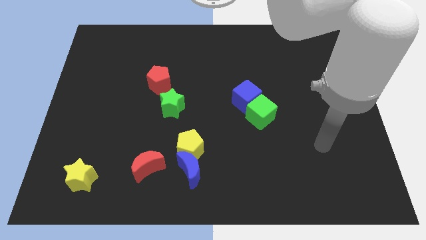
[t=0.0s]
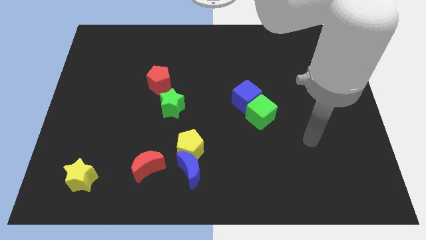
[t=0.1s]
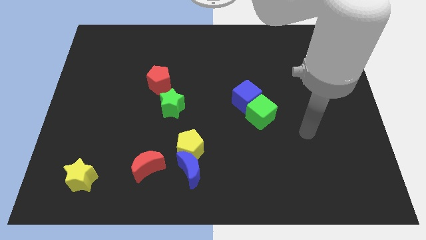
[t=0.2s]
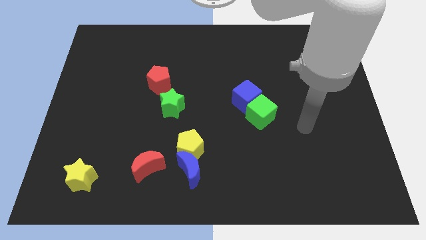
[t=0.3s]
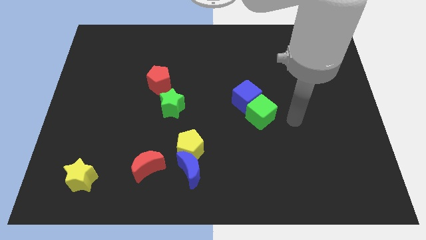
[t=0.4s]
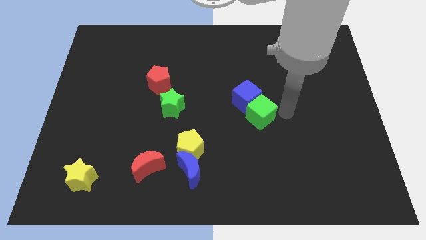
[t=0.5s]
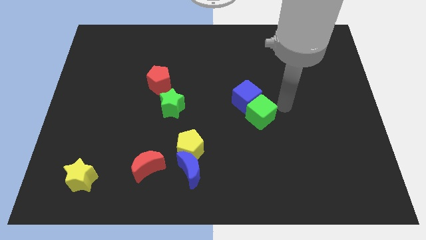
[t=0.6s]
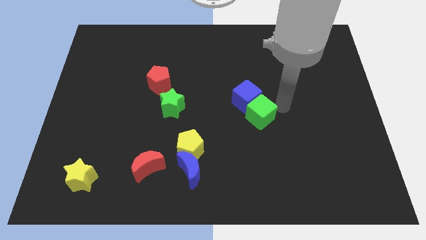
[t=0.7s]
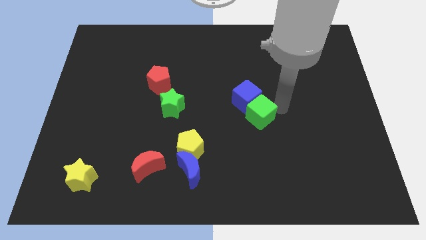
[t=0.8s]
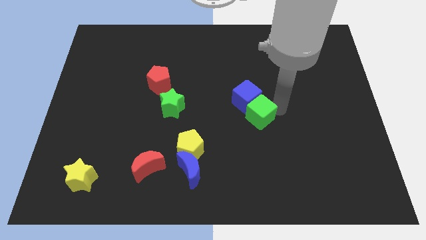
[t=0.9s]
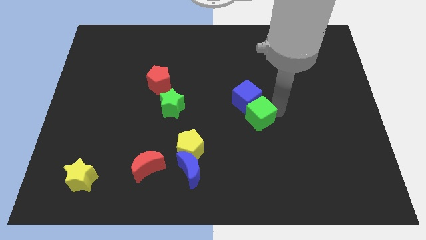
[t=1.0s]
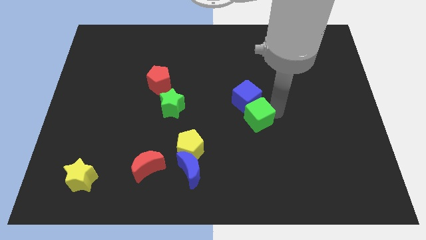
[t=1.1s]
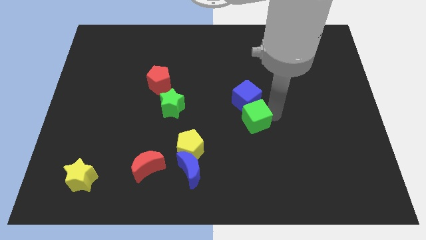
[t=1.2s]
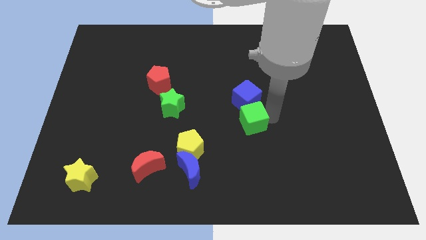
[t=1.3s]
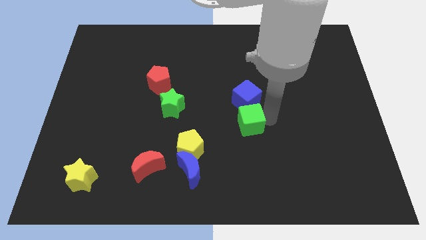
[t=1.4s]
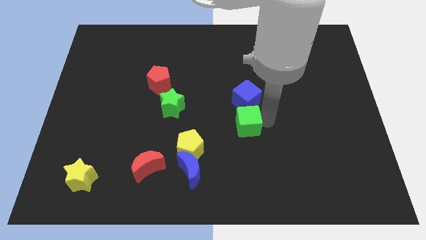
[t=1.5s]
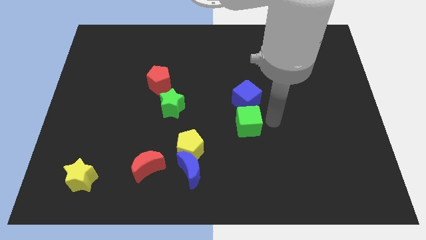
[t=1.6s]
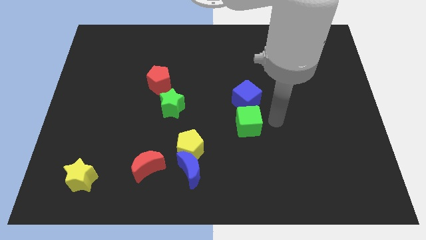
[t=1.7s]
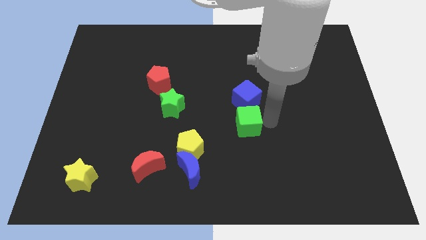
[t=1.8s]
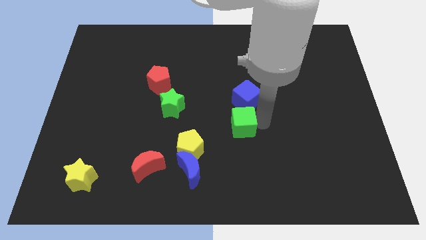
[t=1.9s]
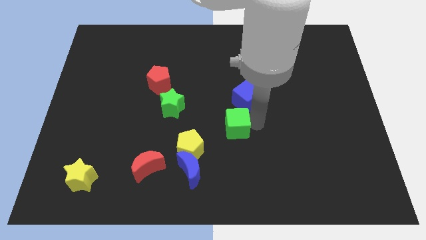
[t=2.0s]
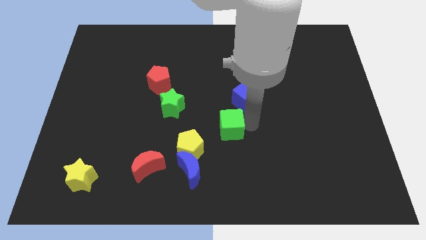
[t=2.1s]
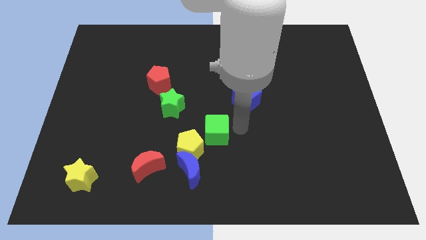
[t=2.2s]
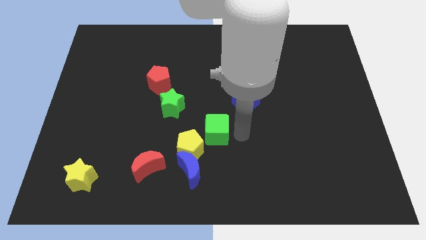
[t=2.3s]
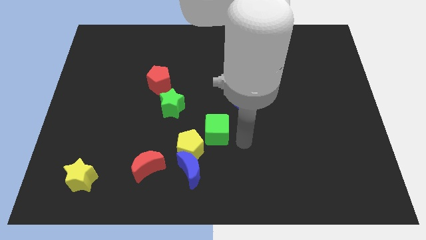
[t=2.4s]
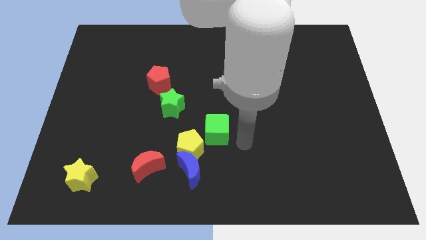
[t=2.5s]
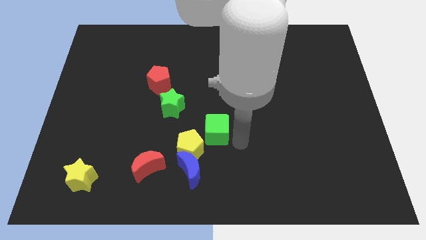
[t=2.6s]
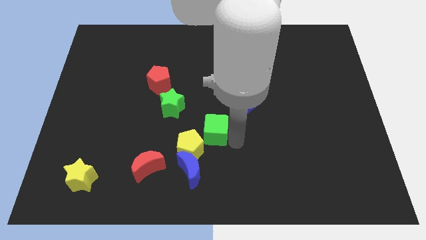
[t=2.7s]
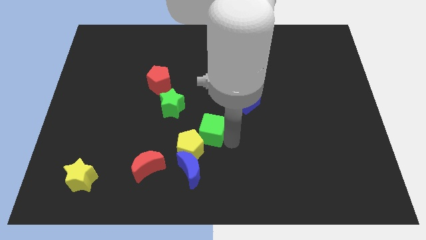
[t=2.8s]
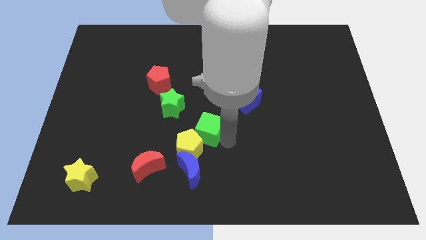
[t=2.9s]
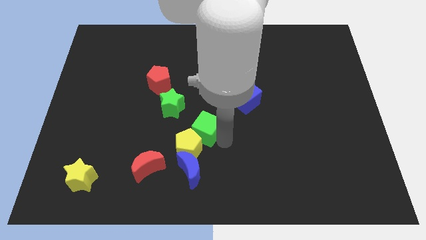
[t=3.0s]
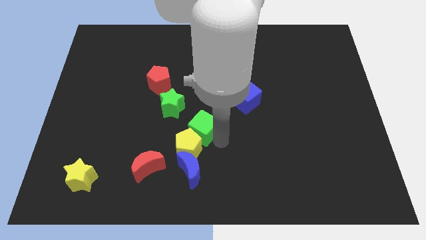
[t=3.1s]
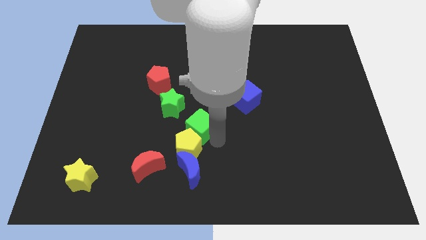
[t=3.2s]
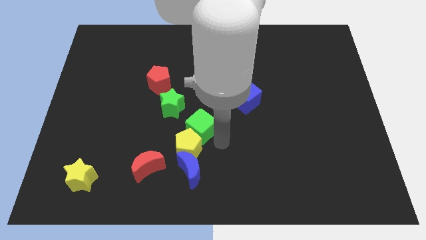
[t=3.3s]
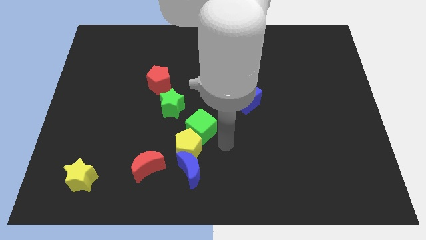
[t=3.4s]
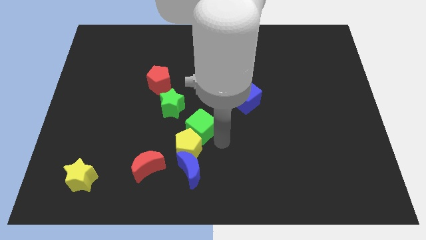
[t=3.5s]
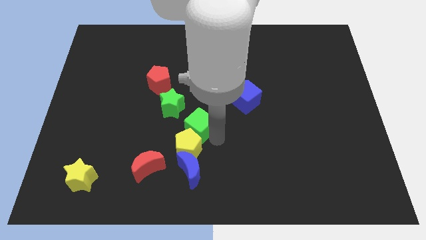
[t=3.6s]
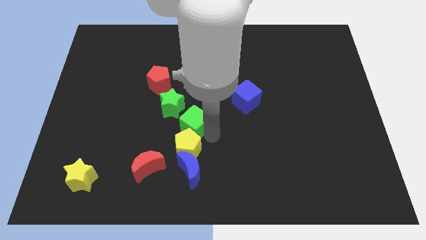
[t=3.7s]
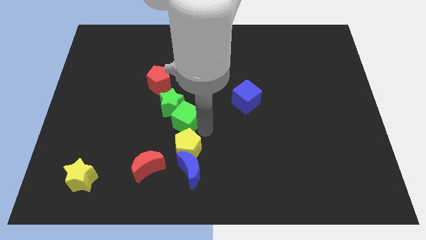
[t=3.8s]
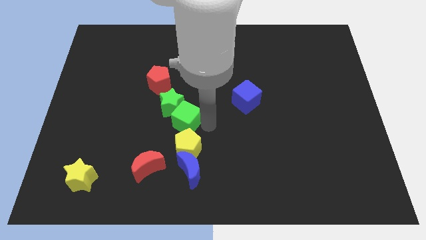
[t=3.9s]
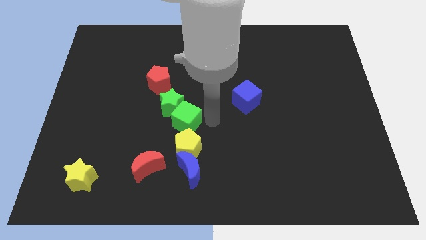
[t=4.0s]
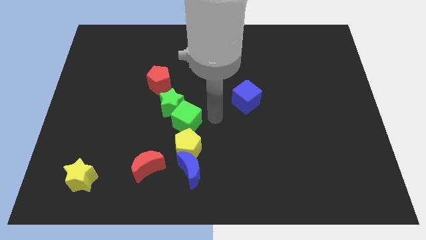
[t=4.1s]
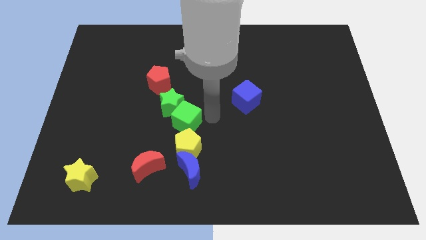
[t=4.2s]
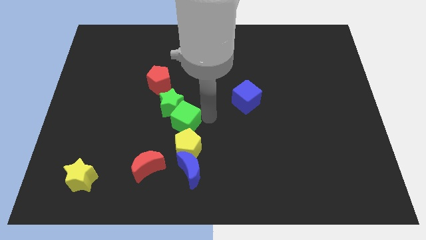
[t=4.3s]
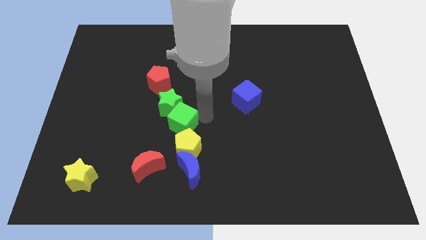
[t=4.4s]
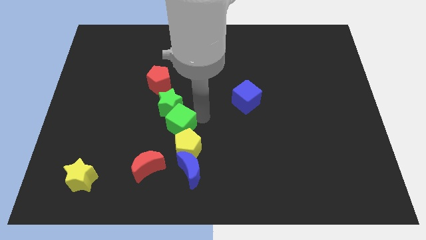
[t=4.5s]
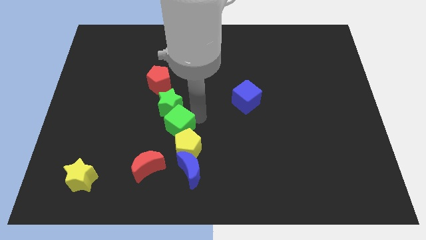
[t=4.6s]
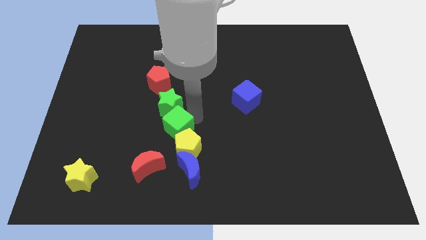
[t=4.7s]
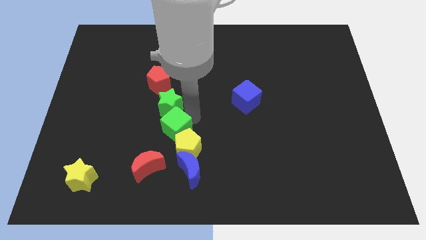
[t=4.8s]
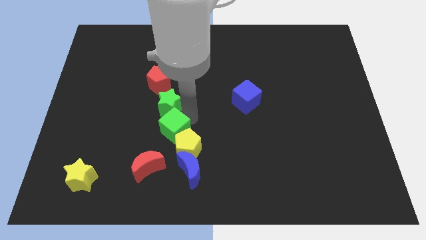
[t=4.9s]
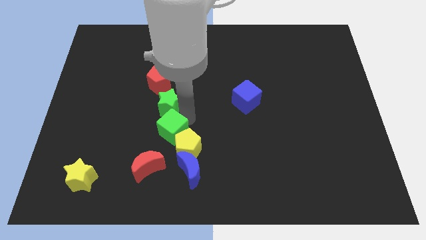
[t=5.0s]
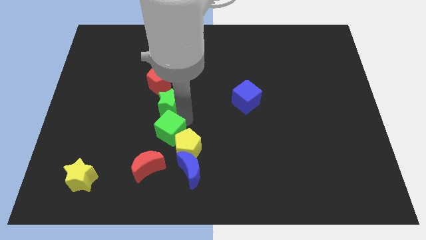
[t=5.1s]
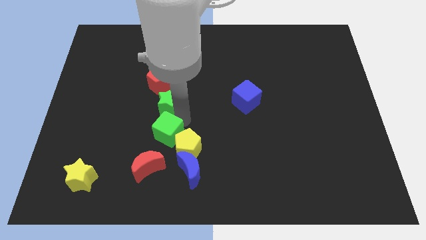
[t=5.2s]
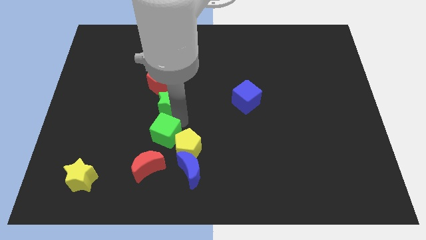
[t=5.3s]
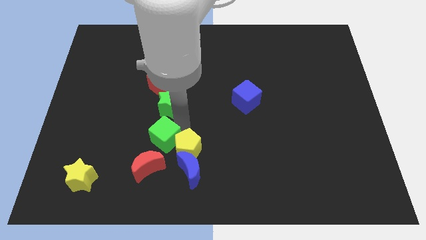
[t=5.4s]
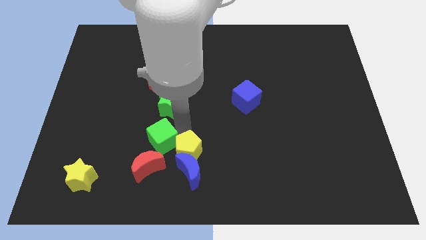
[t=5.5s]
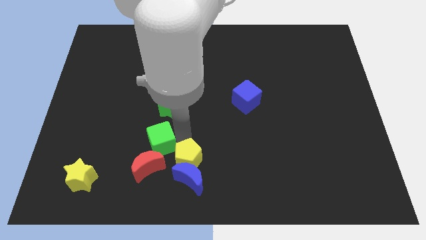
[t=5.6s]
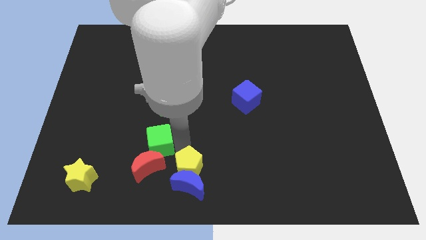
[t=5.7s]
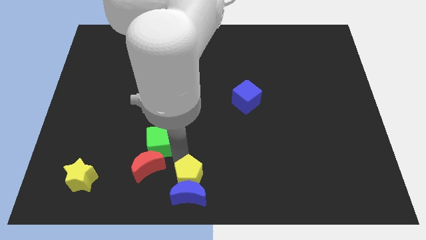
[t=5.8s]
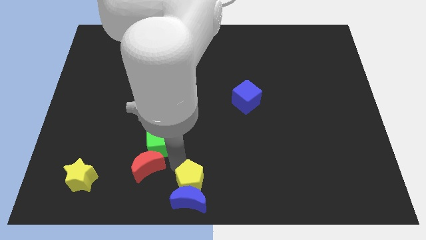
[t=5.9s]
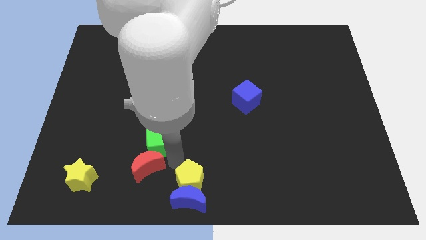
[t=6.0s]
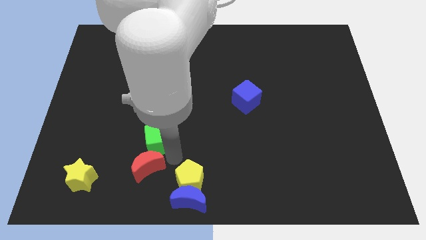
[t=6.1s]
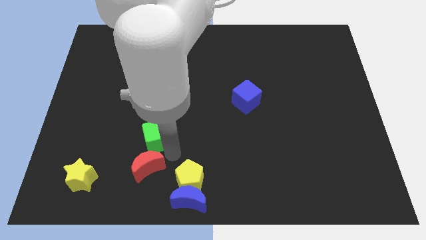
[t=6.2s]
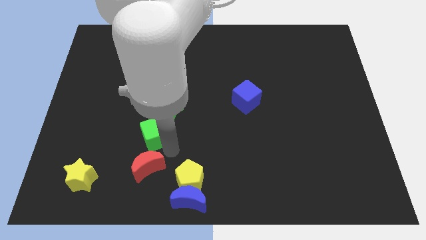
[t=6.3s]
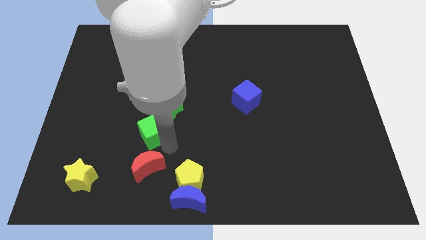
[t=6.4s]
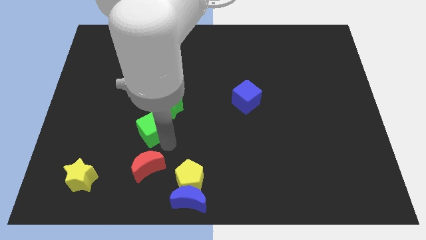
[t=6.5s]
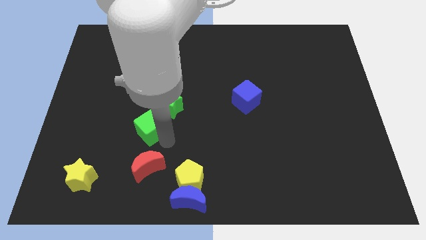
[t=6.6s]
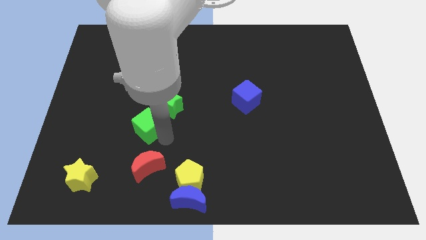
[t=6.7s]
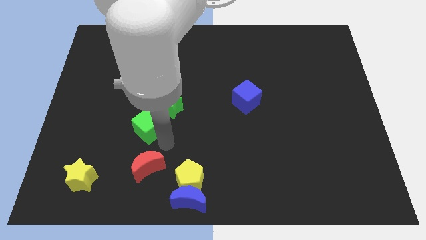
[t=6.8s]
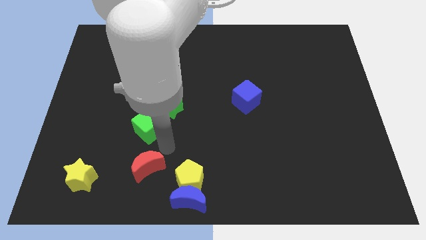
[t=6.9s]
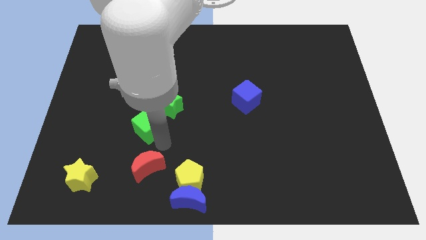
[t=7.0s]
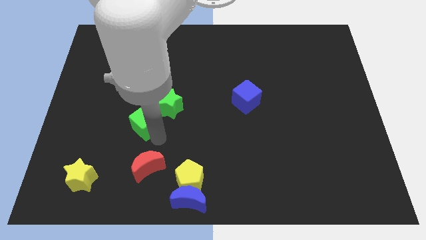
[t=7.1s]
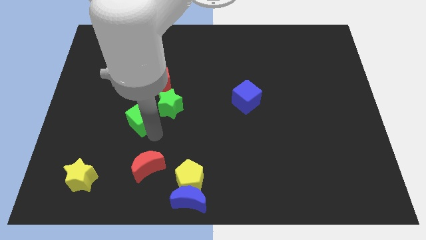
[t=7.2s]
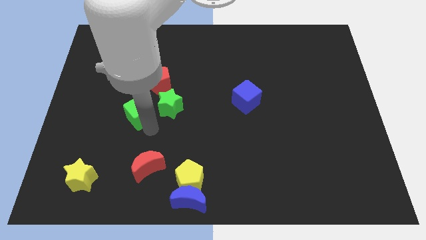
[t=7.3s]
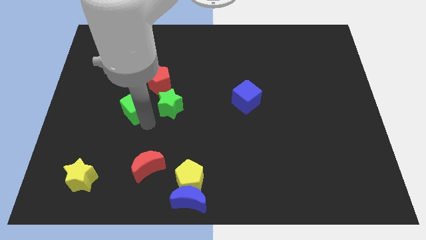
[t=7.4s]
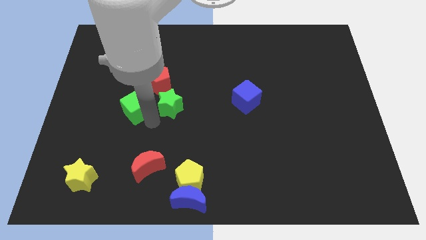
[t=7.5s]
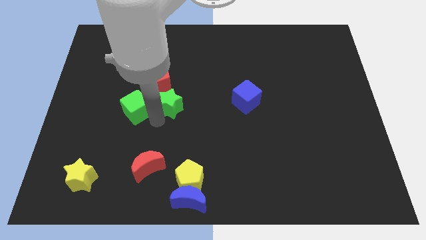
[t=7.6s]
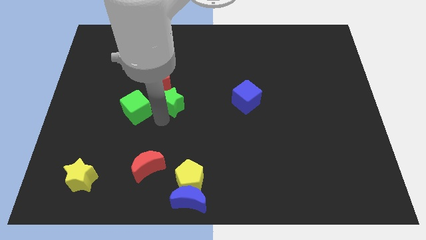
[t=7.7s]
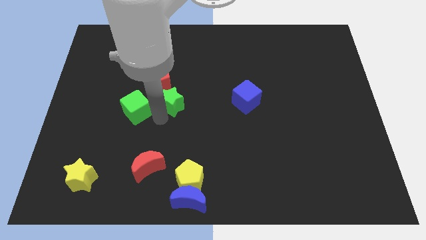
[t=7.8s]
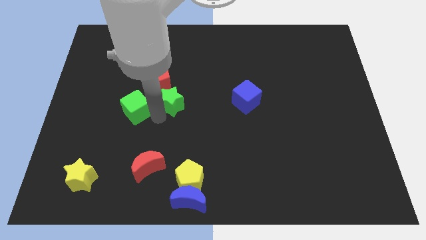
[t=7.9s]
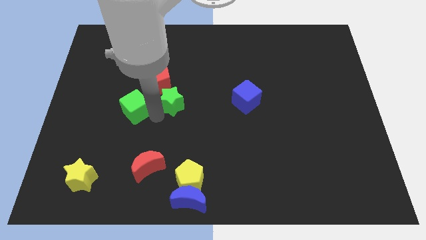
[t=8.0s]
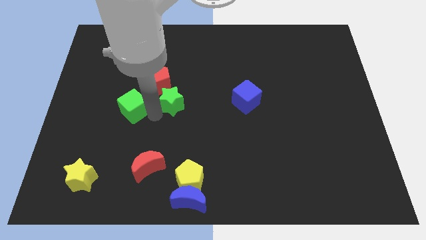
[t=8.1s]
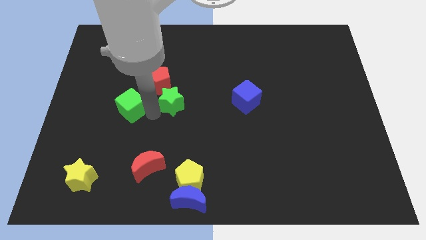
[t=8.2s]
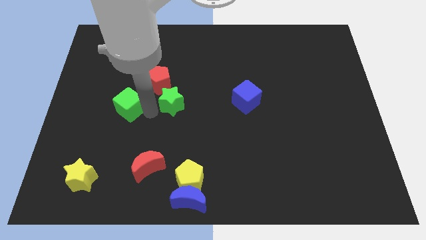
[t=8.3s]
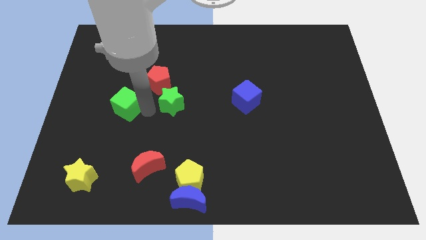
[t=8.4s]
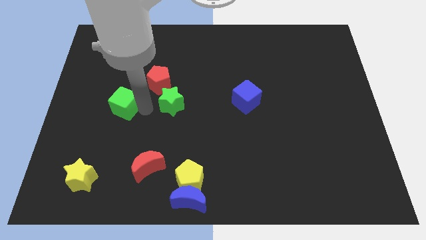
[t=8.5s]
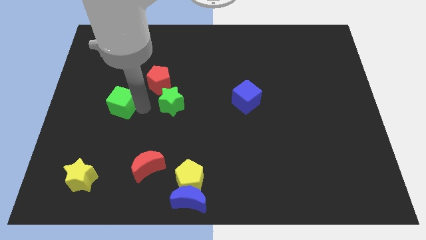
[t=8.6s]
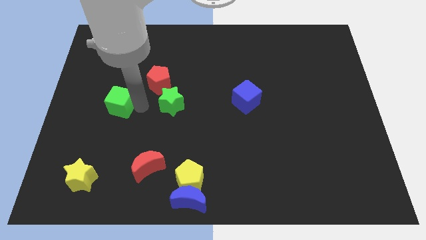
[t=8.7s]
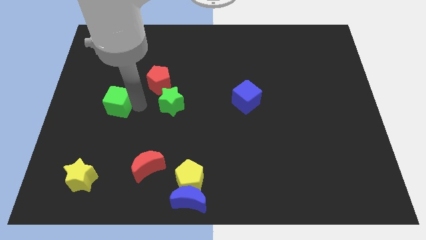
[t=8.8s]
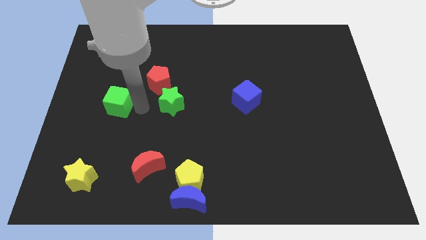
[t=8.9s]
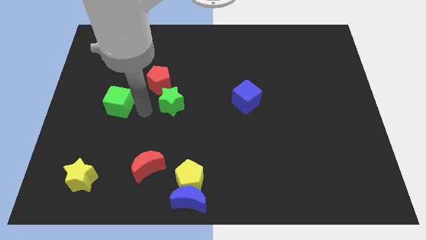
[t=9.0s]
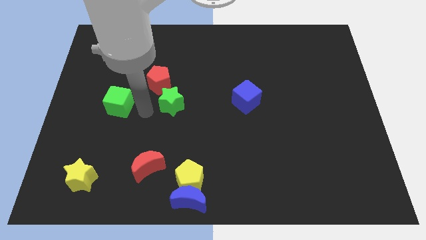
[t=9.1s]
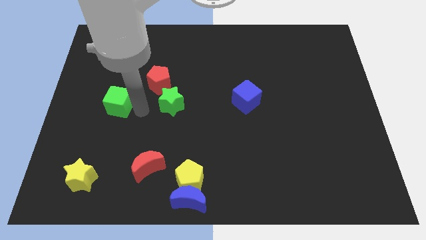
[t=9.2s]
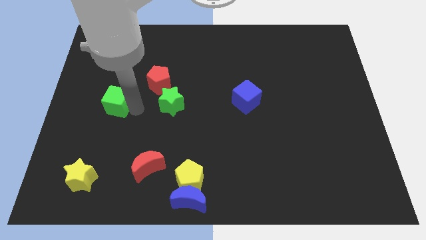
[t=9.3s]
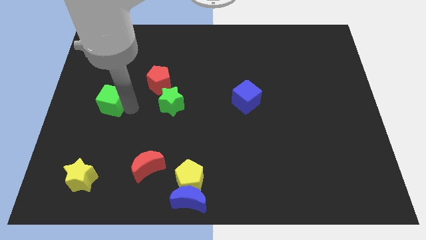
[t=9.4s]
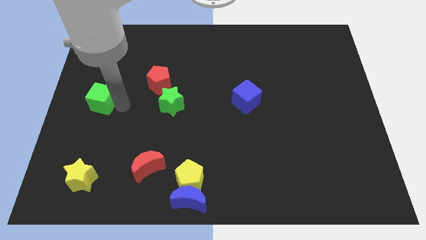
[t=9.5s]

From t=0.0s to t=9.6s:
move the green cube to the center left
